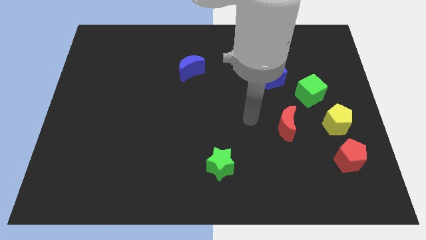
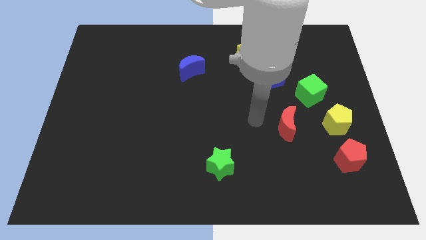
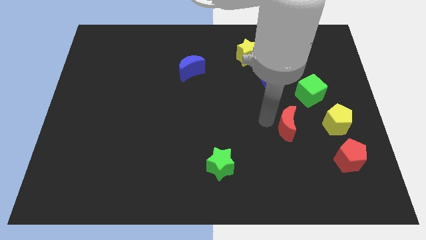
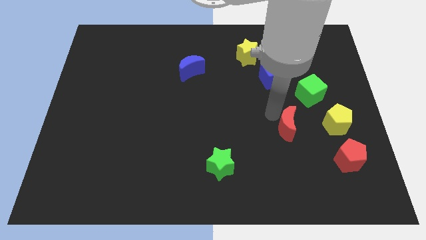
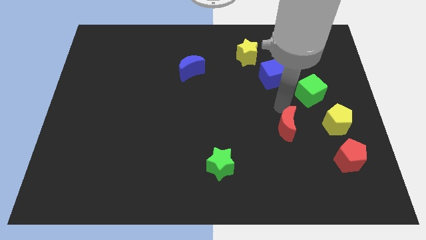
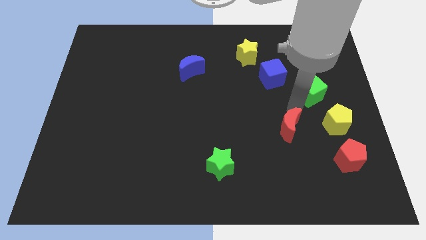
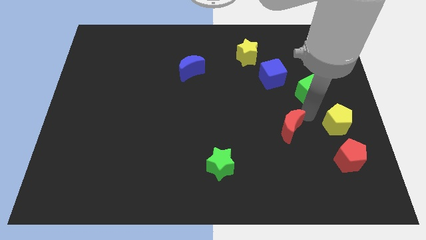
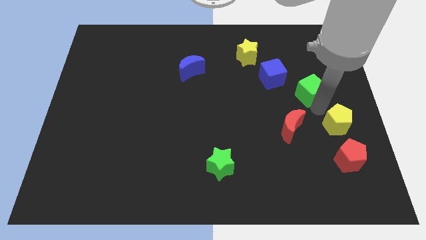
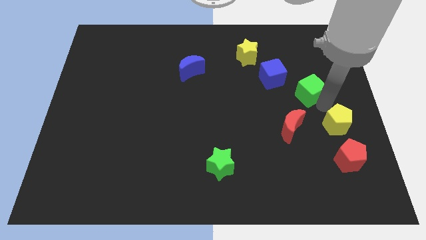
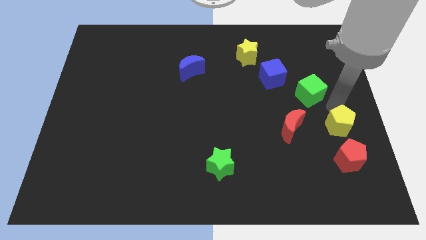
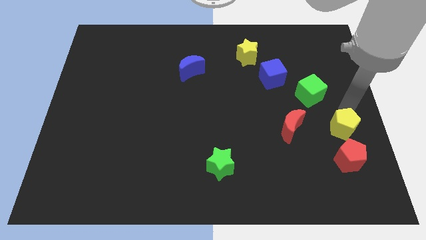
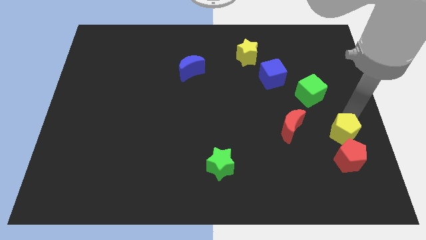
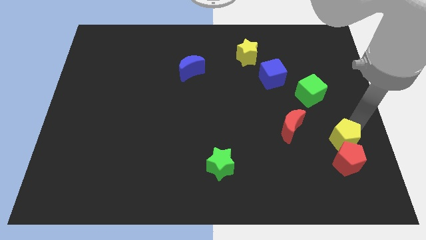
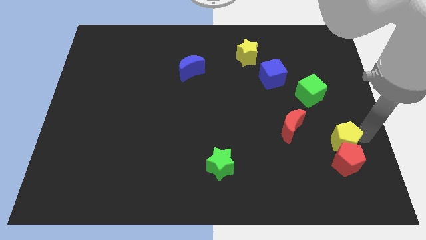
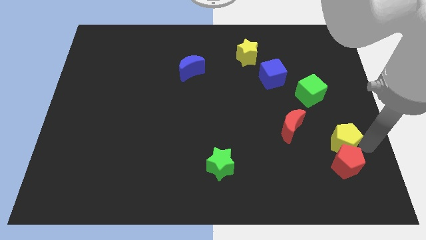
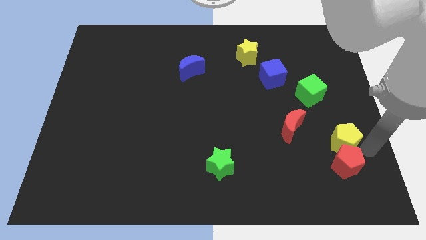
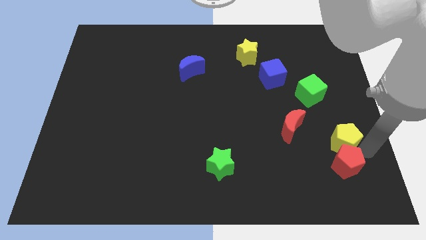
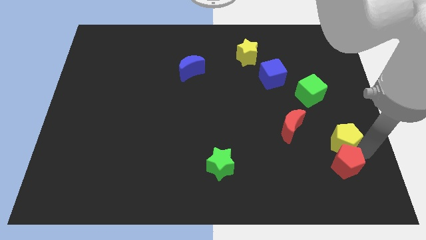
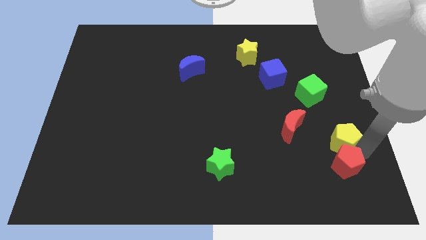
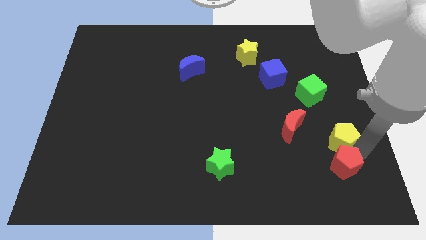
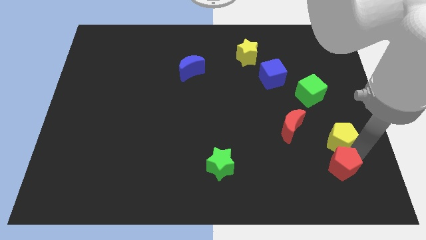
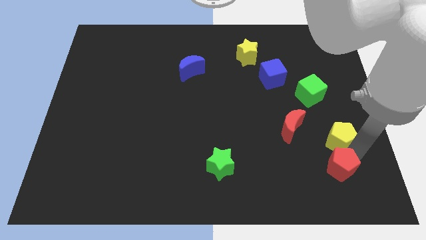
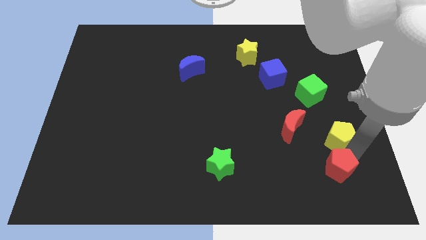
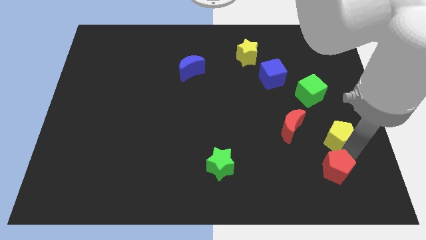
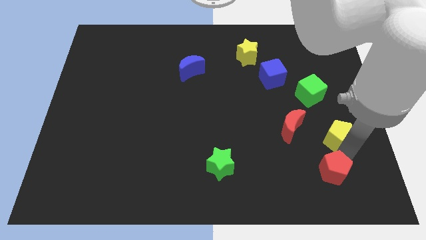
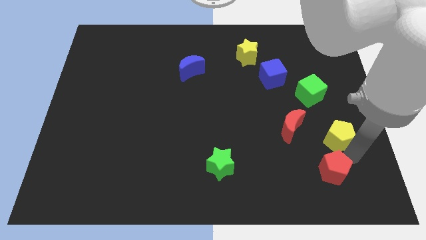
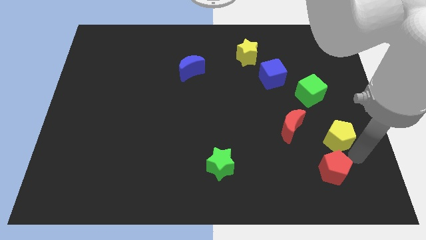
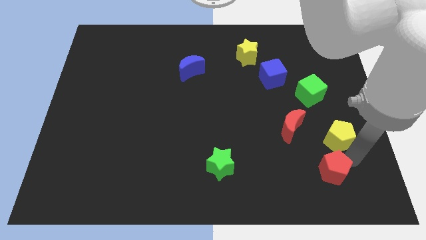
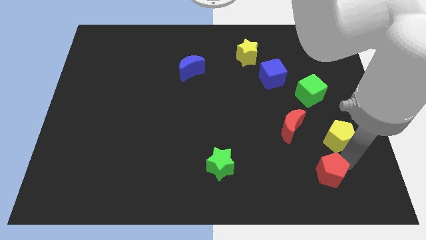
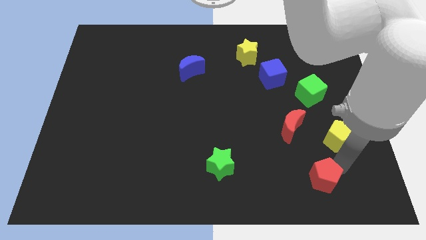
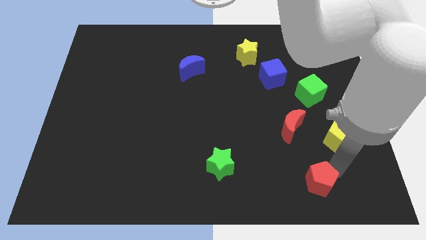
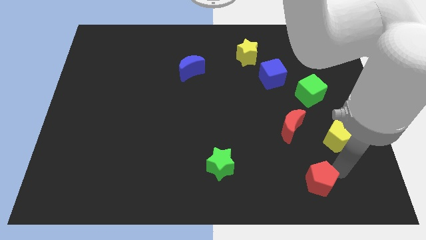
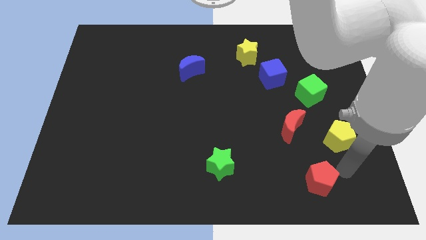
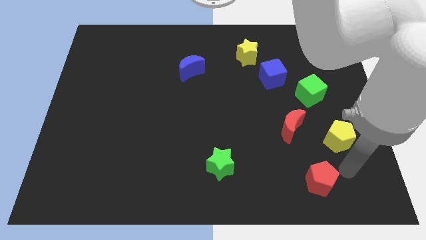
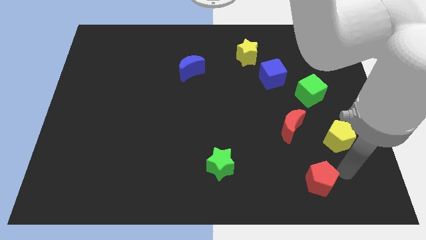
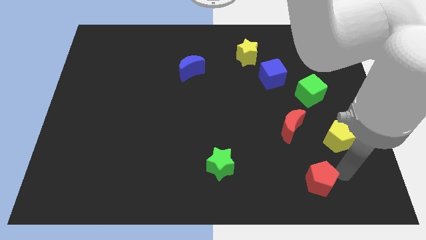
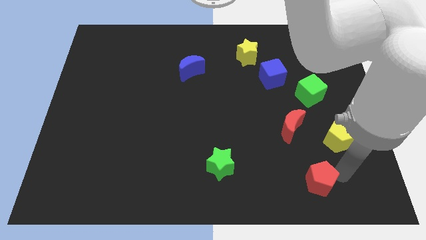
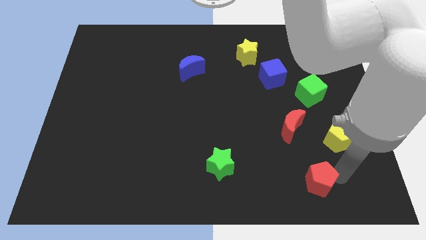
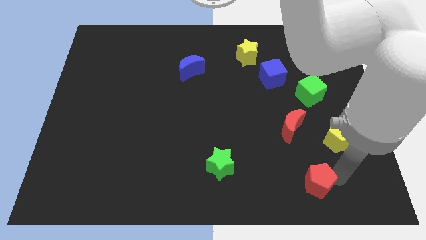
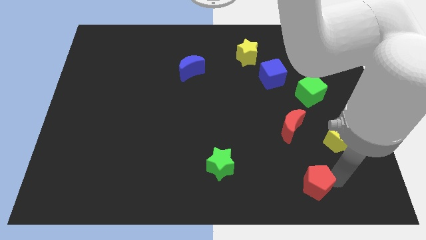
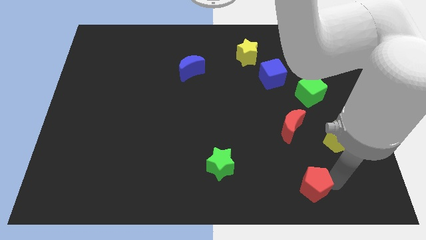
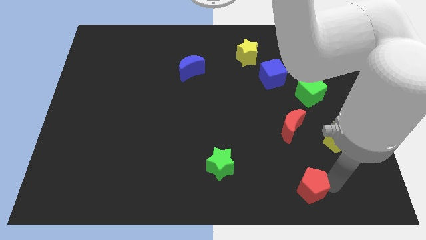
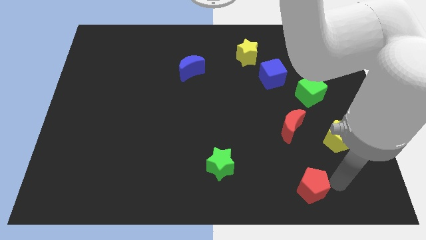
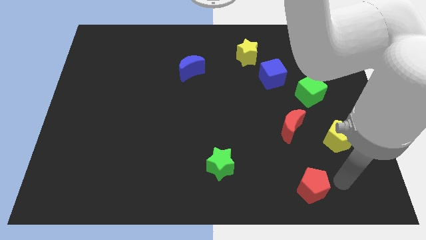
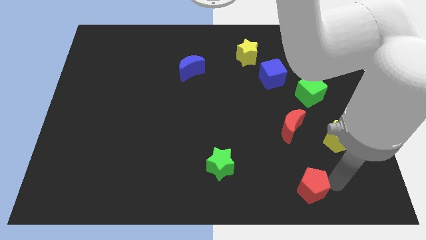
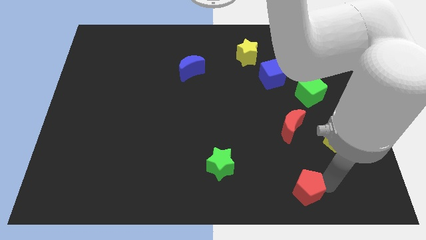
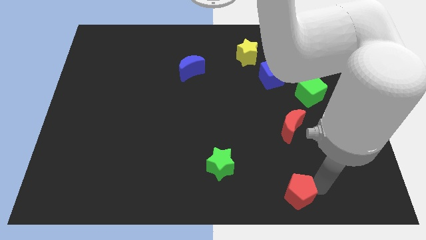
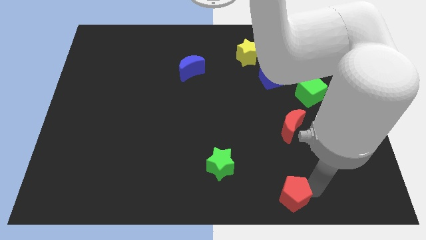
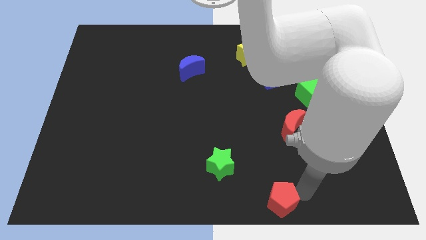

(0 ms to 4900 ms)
slide the red pentagon to the bottom side

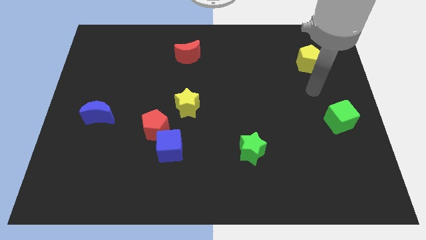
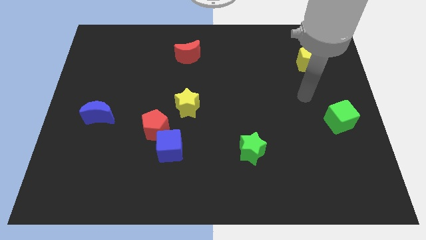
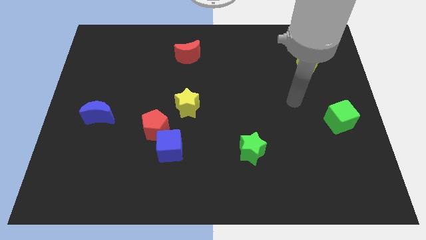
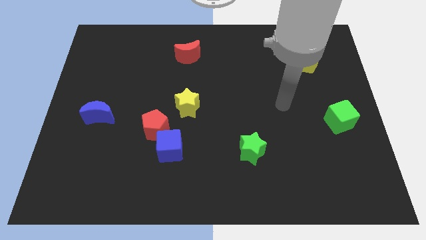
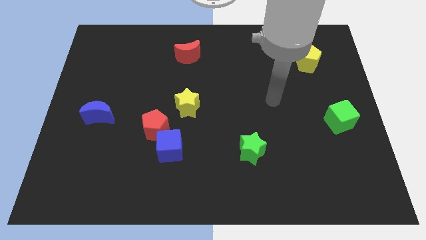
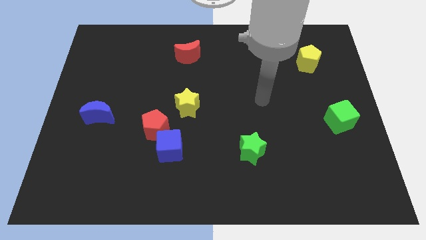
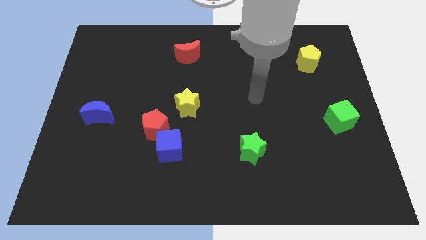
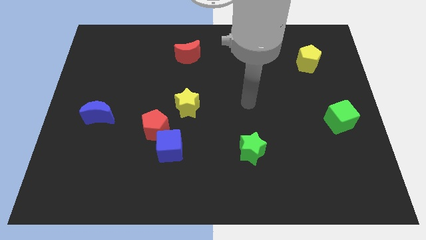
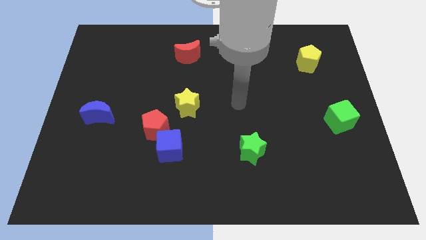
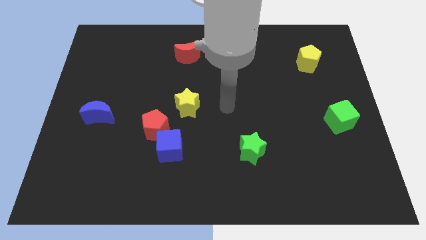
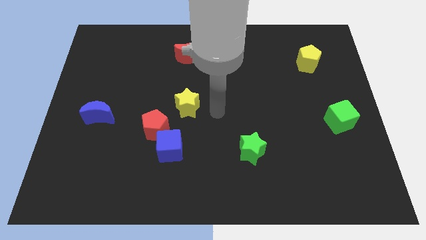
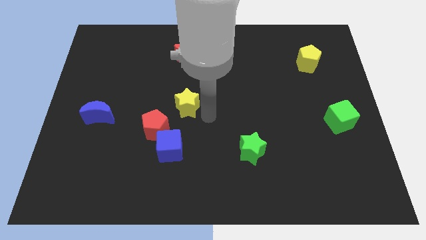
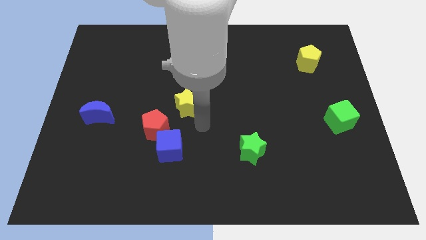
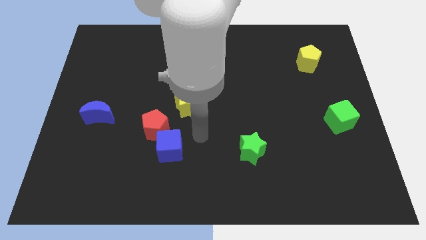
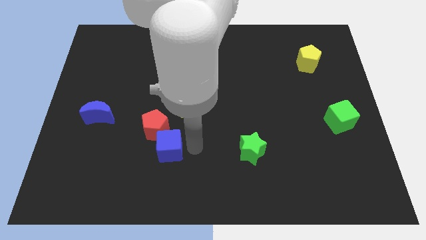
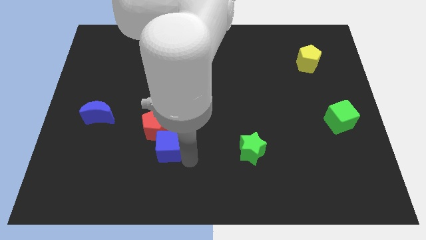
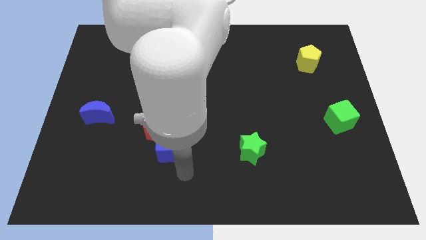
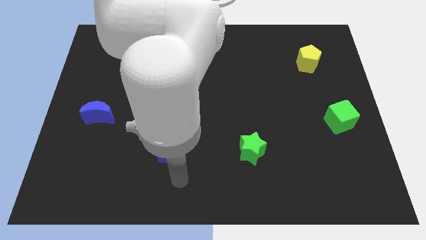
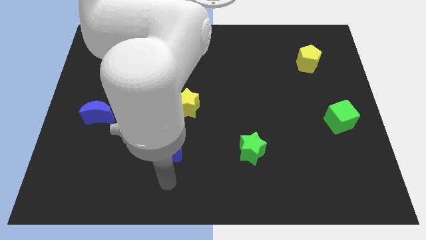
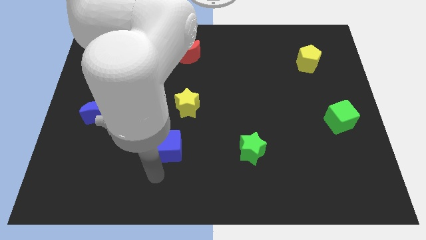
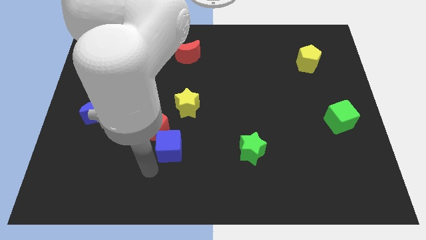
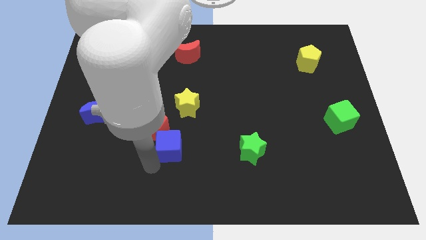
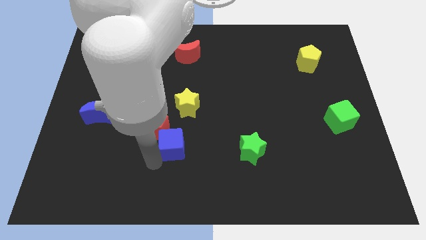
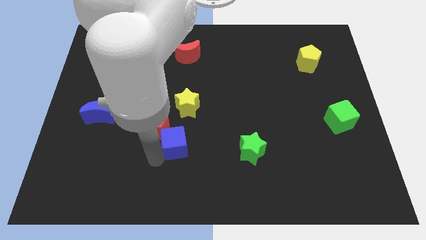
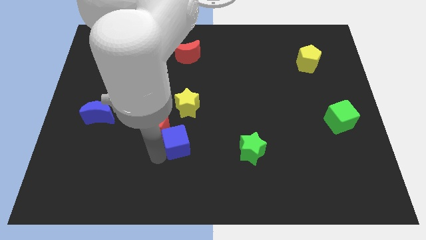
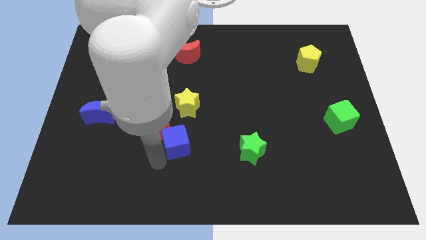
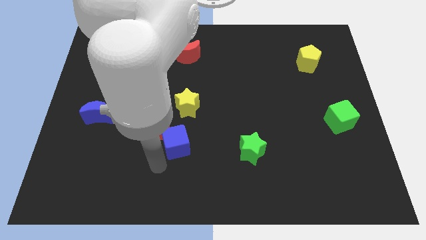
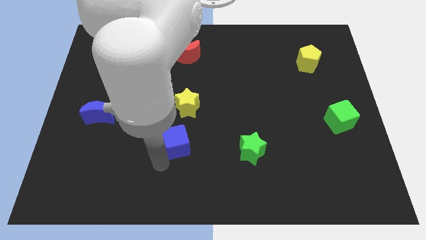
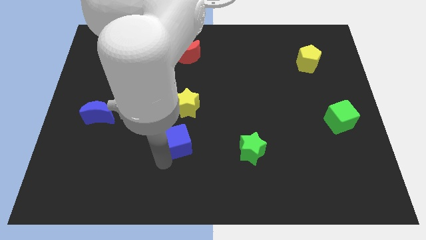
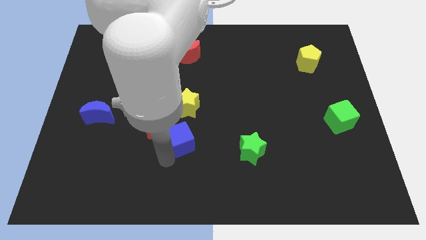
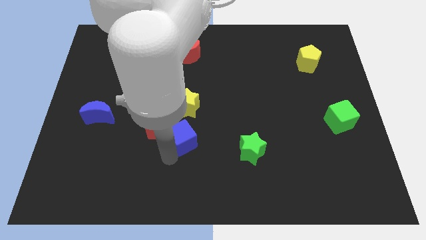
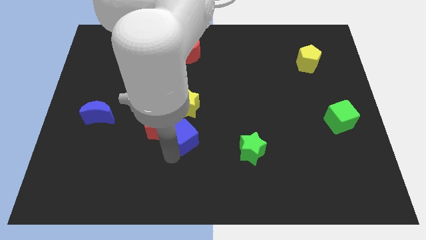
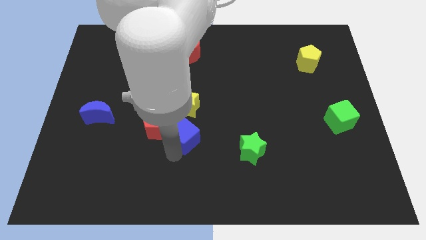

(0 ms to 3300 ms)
push the blue cube to the center

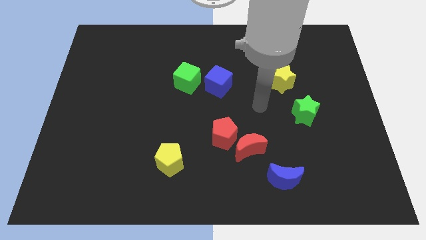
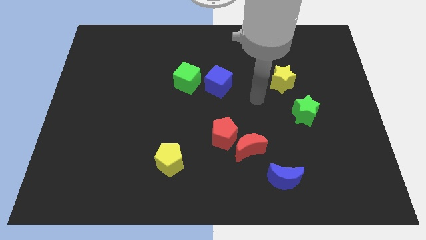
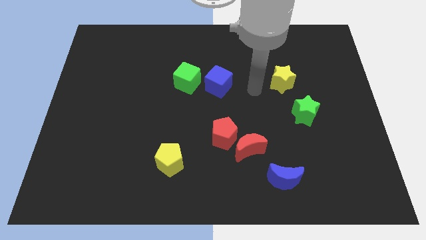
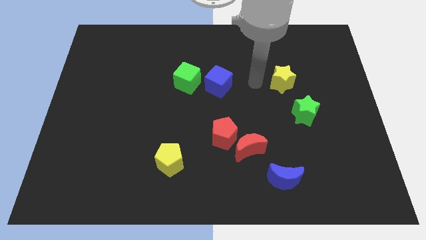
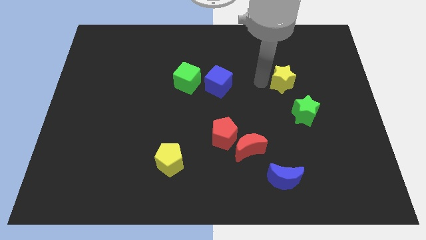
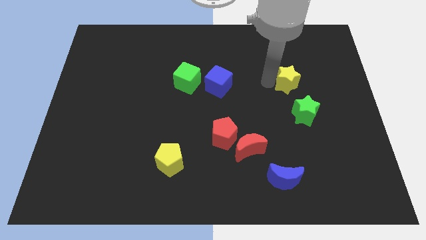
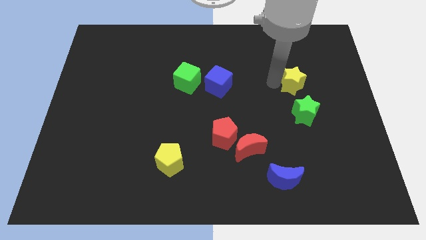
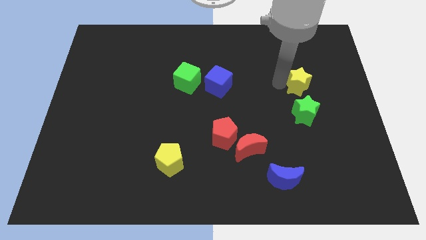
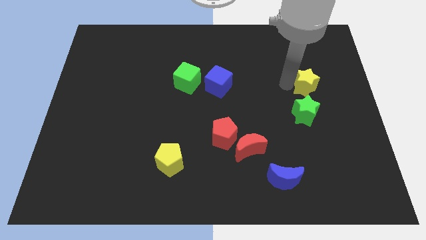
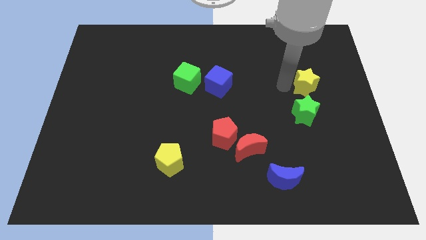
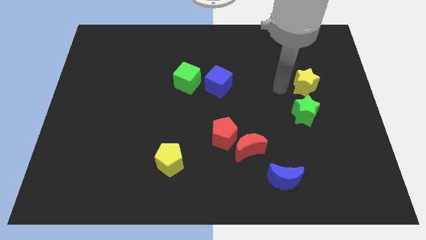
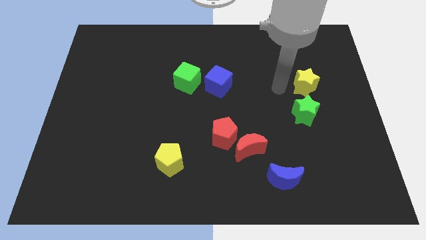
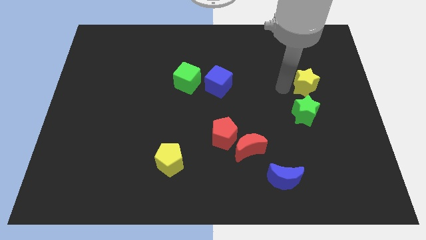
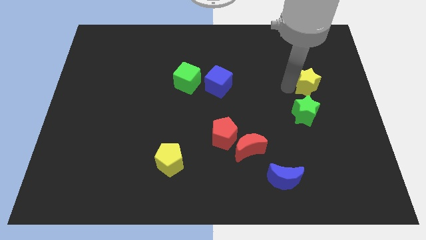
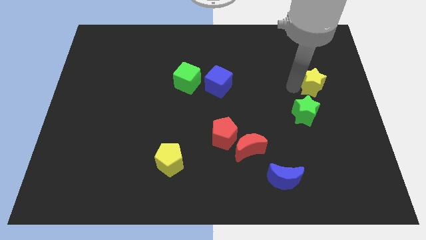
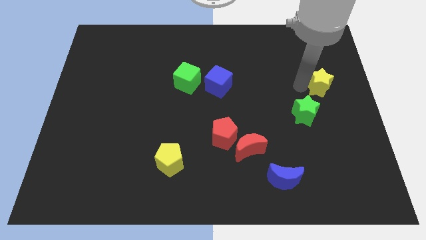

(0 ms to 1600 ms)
put the yellow star to the center right
